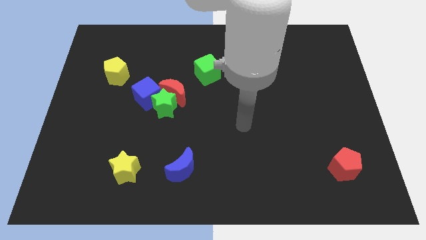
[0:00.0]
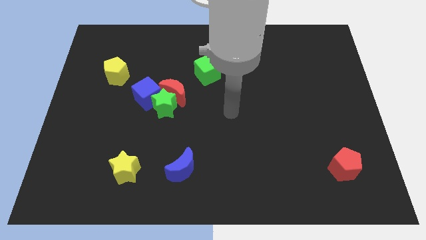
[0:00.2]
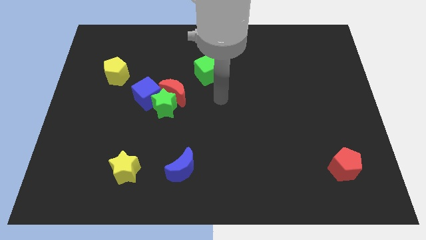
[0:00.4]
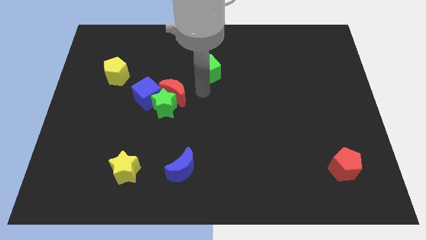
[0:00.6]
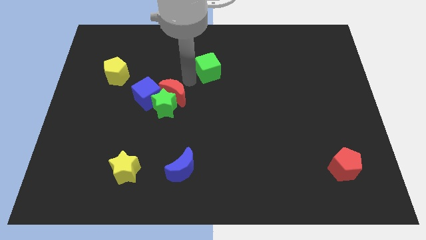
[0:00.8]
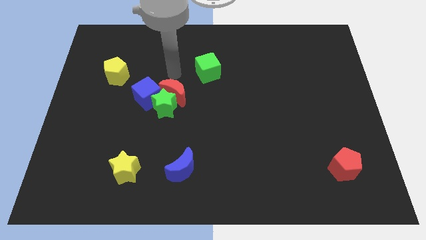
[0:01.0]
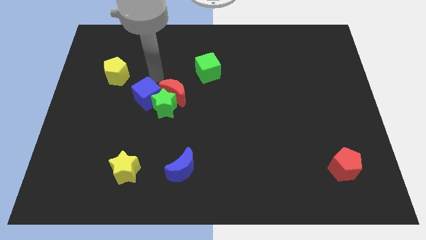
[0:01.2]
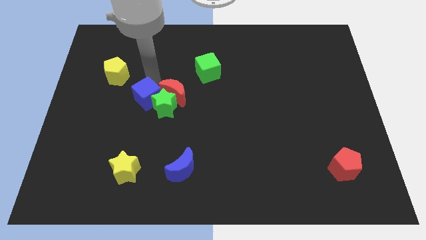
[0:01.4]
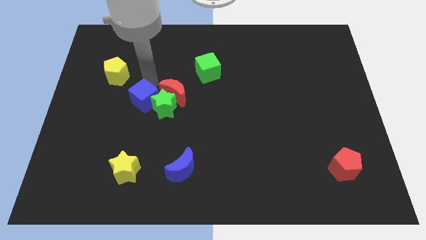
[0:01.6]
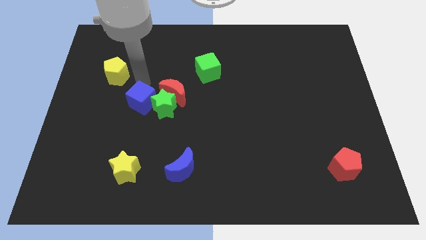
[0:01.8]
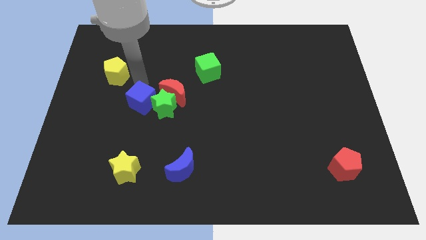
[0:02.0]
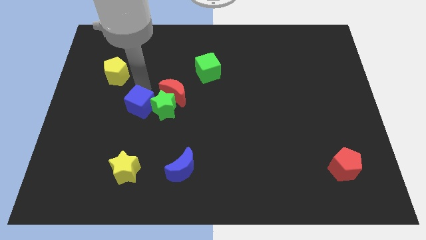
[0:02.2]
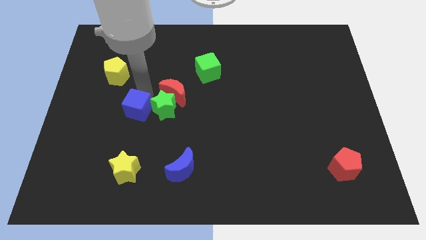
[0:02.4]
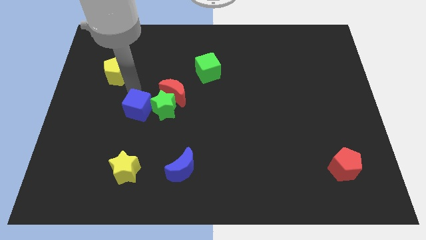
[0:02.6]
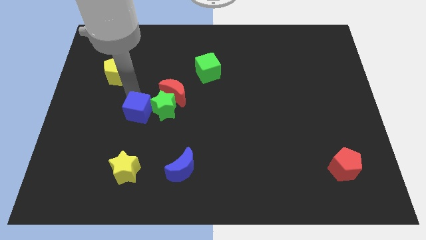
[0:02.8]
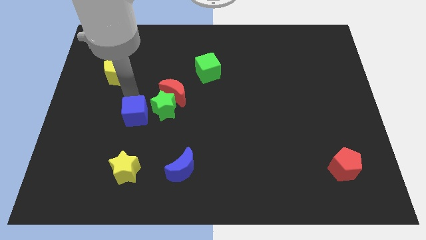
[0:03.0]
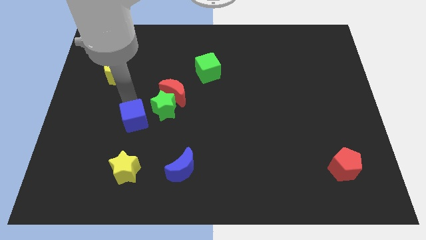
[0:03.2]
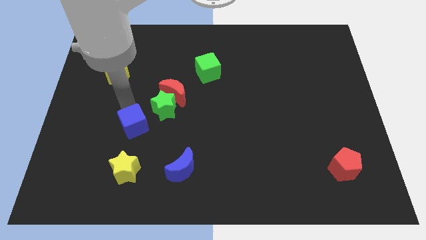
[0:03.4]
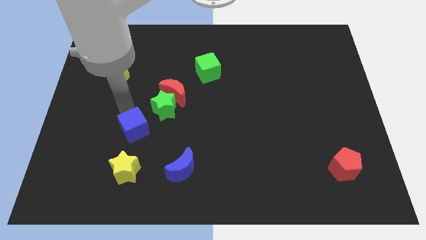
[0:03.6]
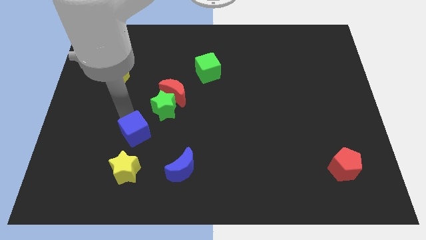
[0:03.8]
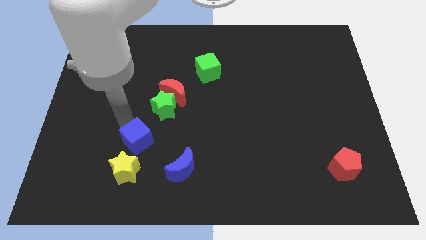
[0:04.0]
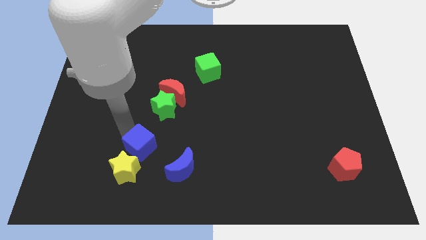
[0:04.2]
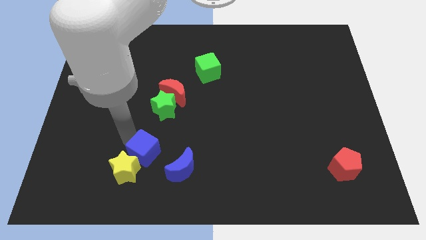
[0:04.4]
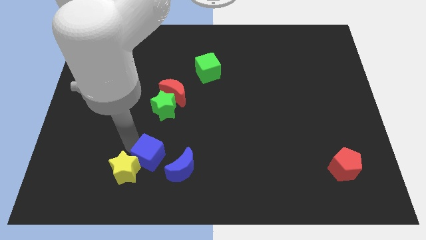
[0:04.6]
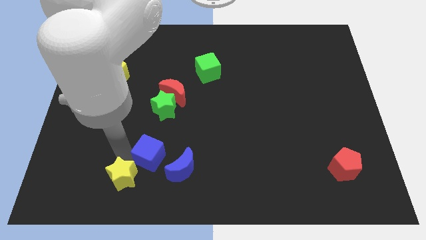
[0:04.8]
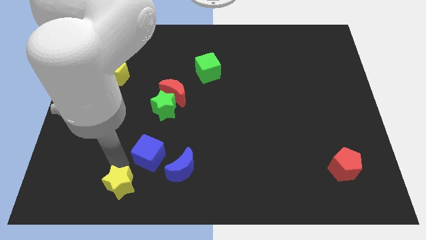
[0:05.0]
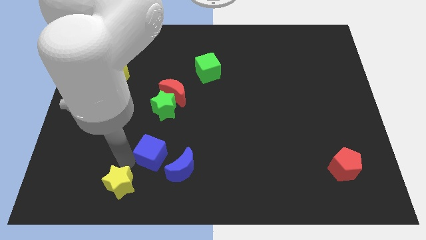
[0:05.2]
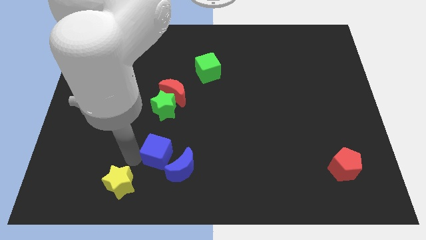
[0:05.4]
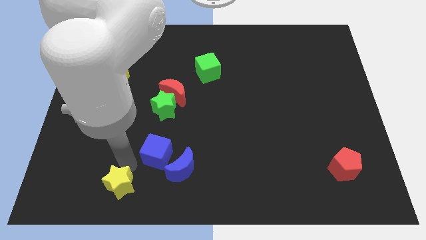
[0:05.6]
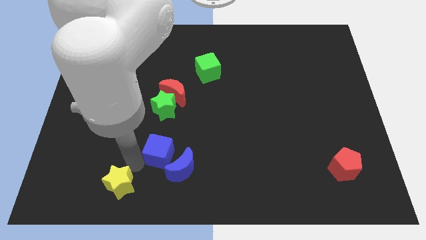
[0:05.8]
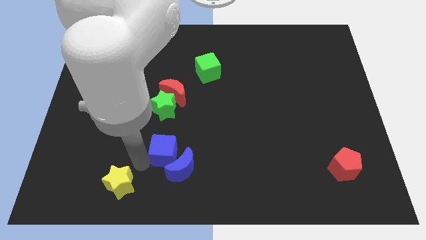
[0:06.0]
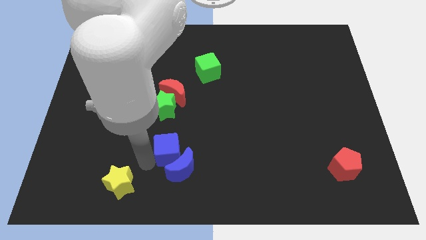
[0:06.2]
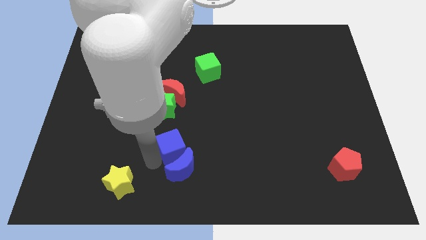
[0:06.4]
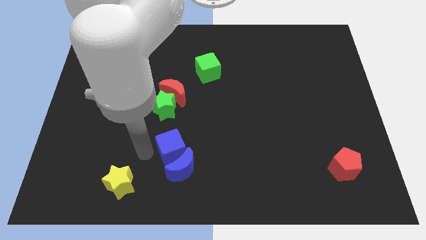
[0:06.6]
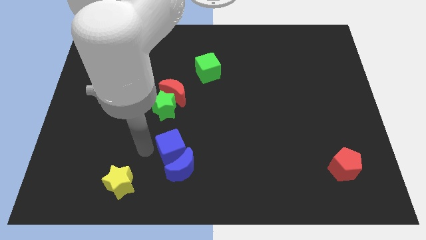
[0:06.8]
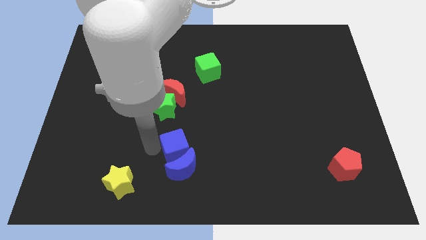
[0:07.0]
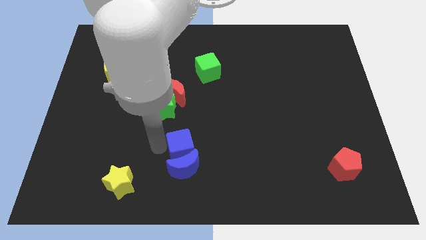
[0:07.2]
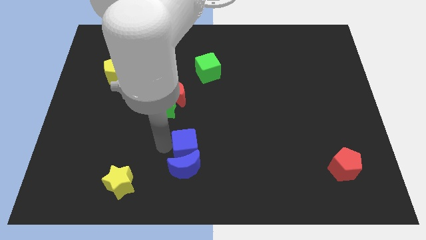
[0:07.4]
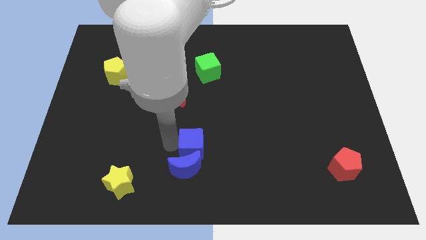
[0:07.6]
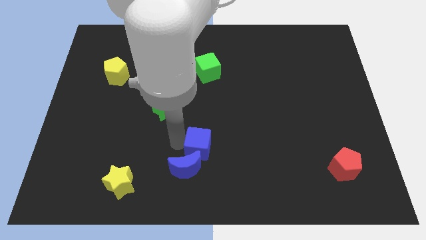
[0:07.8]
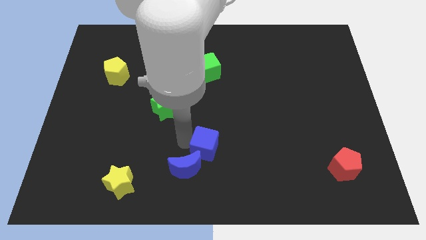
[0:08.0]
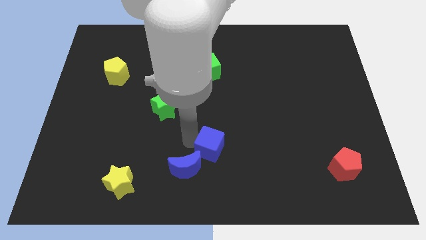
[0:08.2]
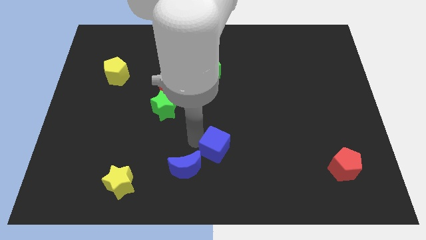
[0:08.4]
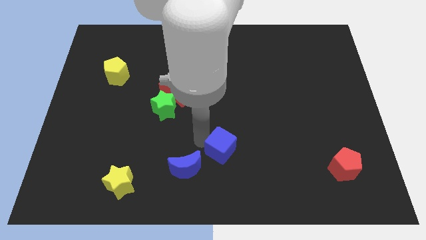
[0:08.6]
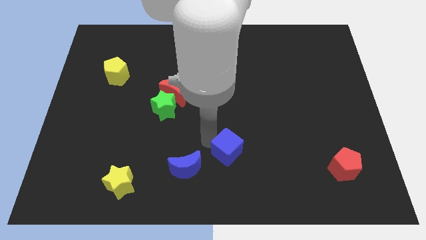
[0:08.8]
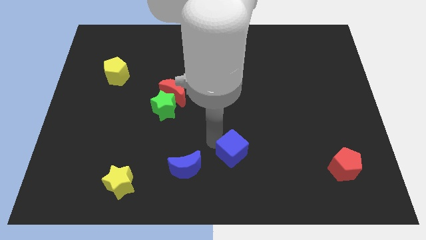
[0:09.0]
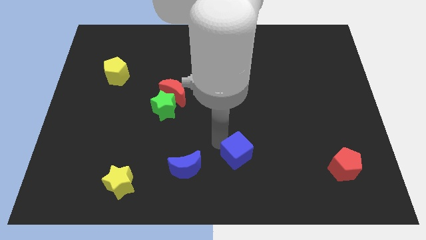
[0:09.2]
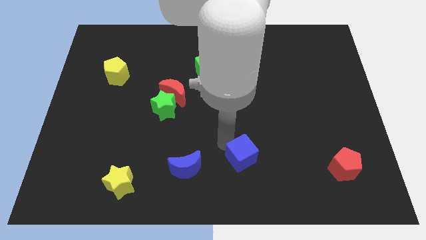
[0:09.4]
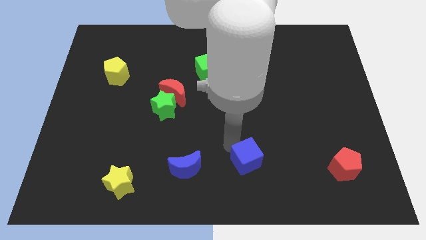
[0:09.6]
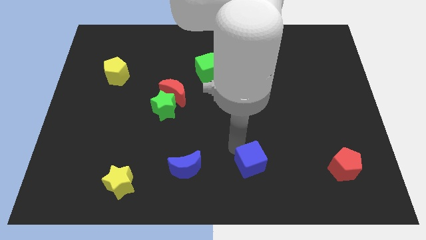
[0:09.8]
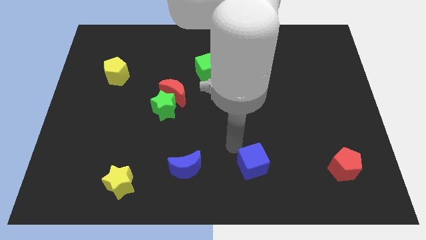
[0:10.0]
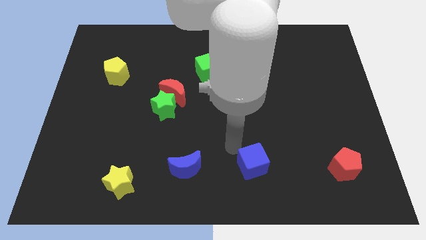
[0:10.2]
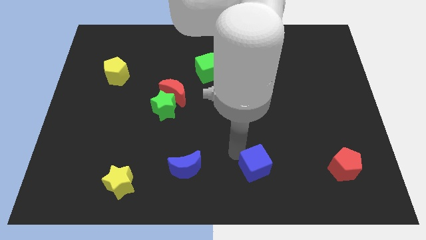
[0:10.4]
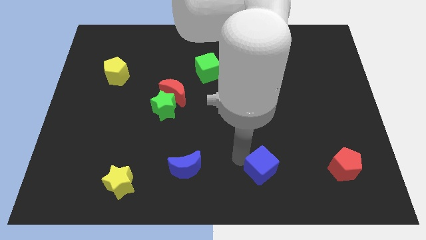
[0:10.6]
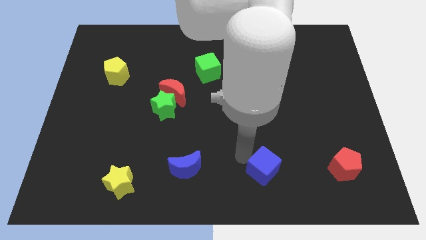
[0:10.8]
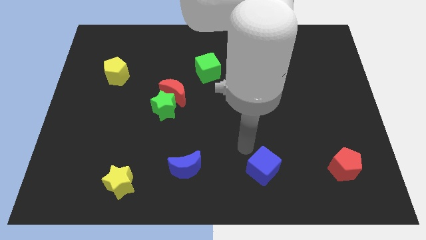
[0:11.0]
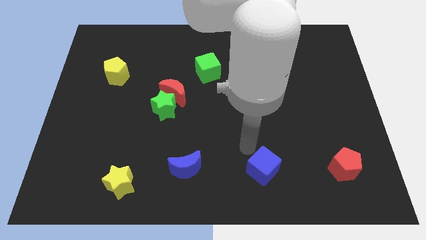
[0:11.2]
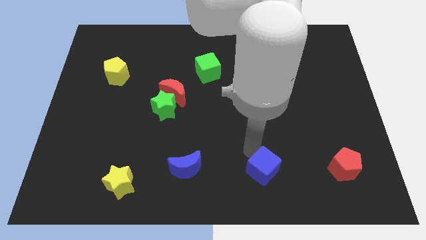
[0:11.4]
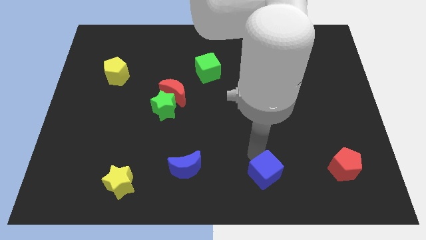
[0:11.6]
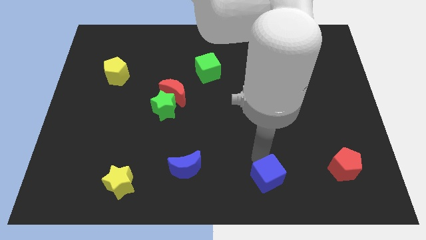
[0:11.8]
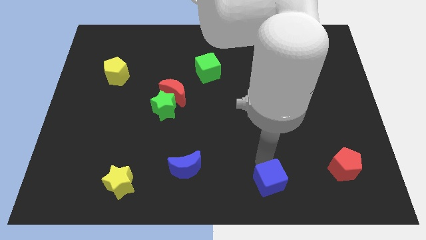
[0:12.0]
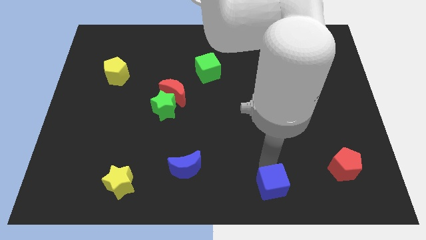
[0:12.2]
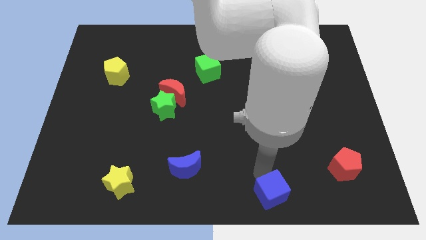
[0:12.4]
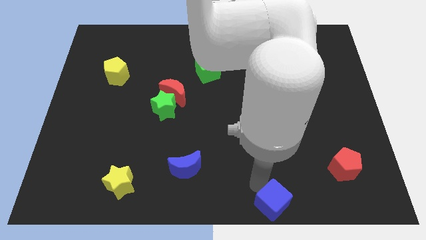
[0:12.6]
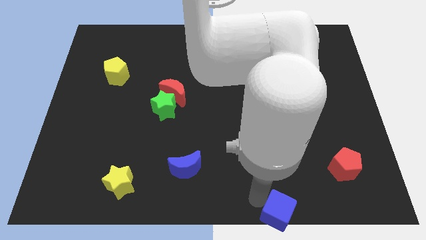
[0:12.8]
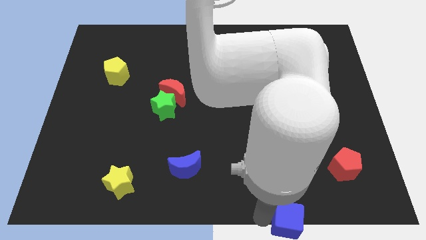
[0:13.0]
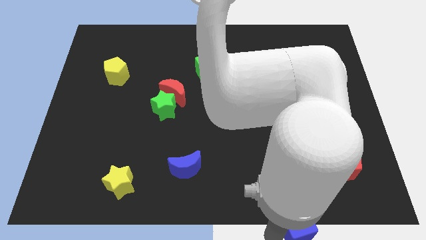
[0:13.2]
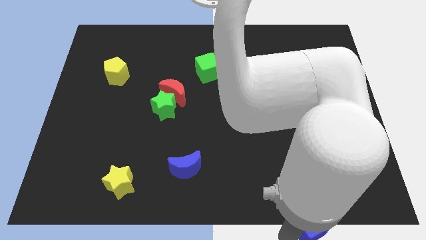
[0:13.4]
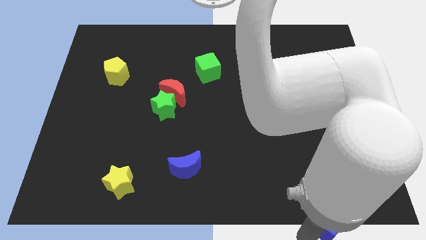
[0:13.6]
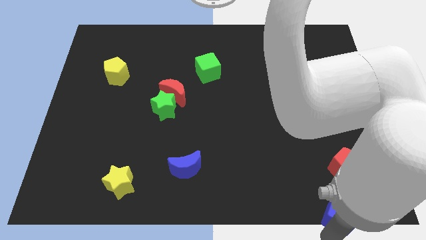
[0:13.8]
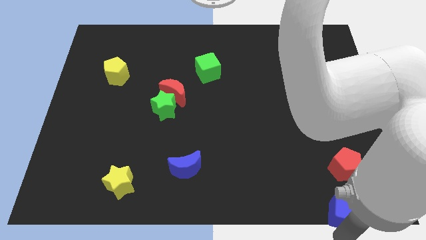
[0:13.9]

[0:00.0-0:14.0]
put the blue cube to the bottom right
